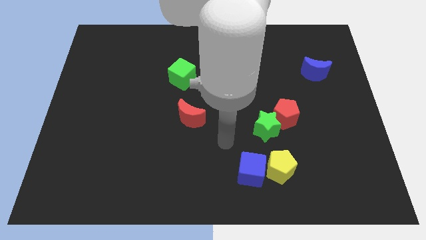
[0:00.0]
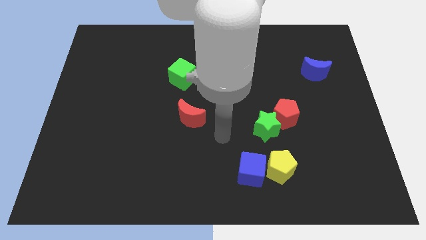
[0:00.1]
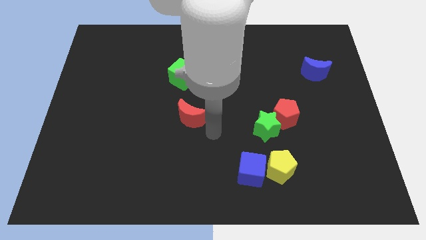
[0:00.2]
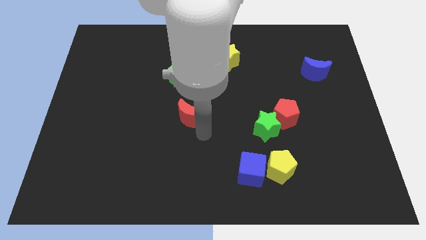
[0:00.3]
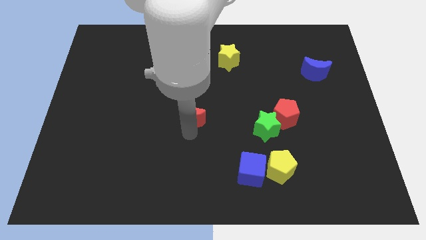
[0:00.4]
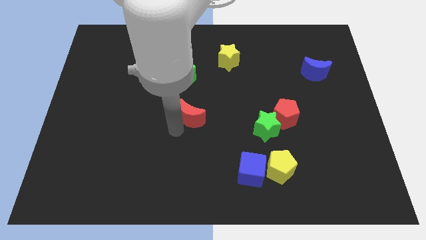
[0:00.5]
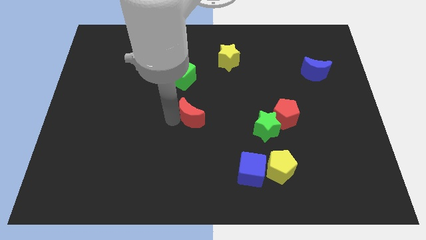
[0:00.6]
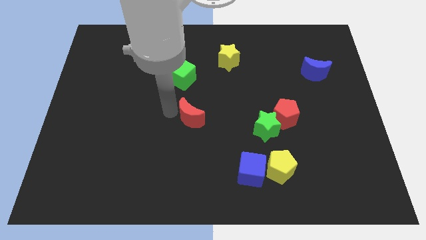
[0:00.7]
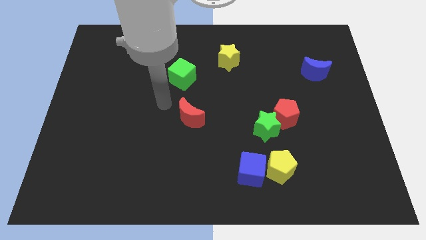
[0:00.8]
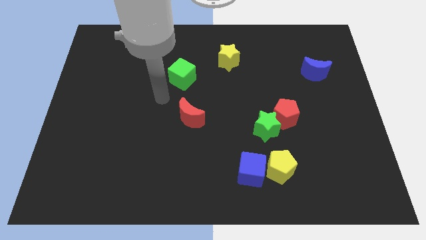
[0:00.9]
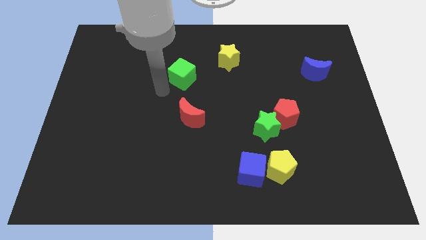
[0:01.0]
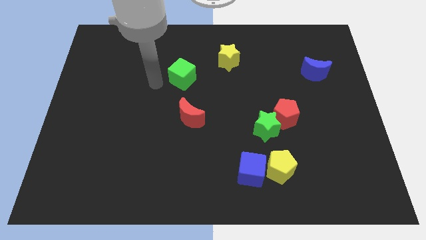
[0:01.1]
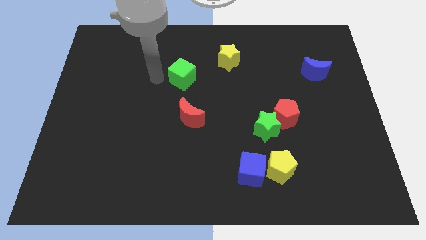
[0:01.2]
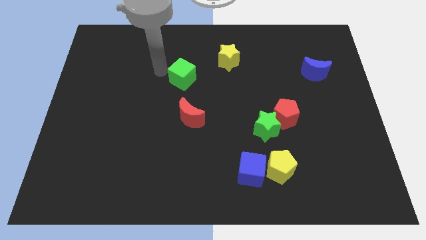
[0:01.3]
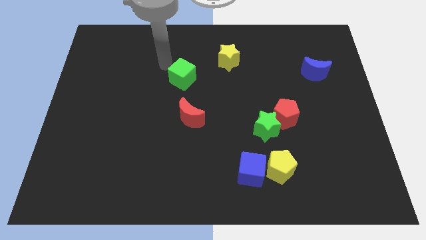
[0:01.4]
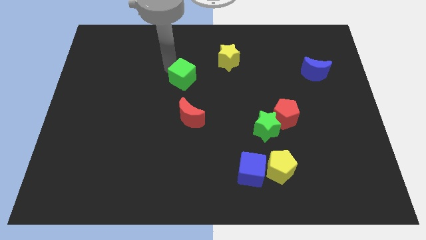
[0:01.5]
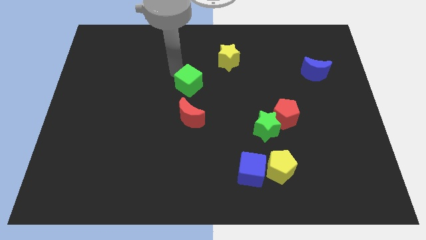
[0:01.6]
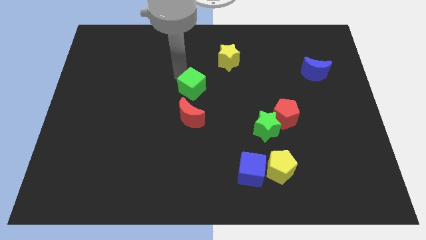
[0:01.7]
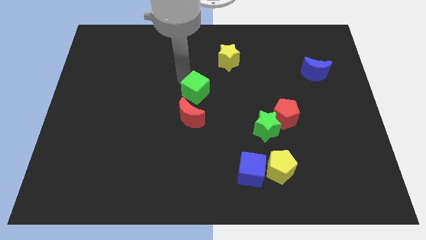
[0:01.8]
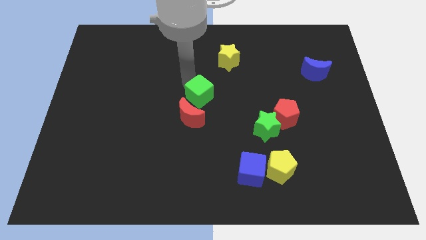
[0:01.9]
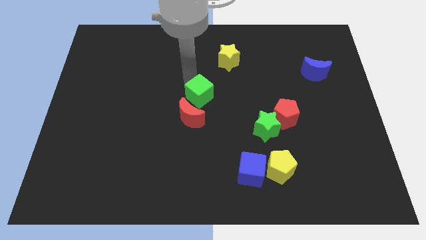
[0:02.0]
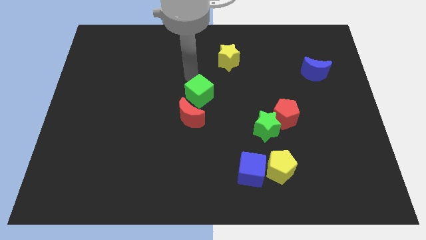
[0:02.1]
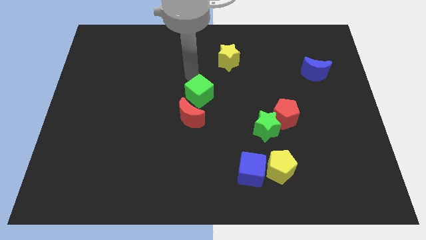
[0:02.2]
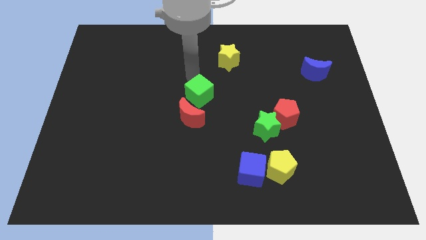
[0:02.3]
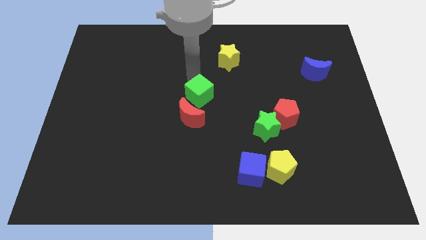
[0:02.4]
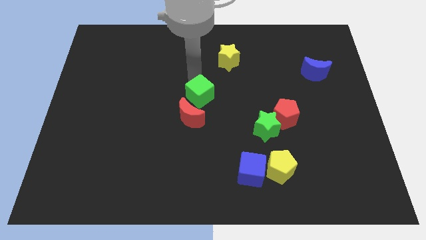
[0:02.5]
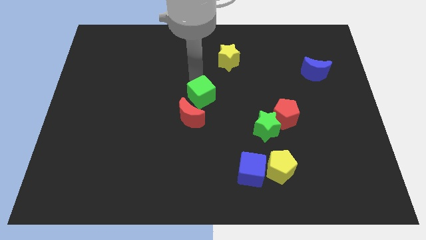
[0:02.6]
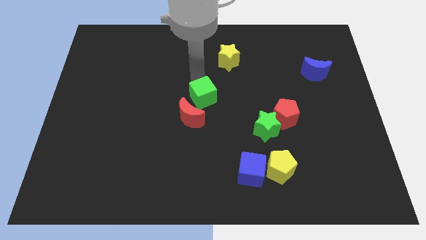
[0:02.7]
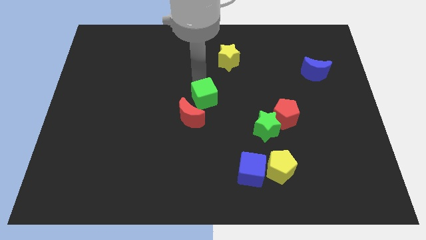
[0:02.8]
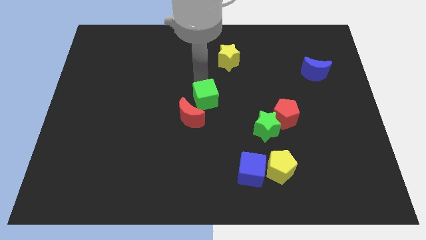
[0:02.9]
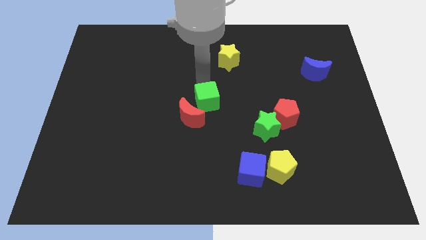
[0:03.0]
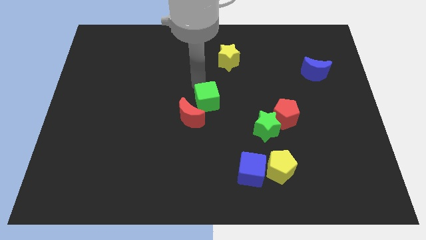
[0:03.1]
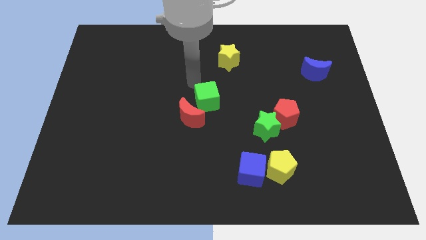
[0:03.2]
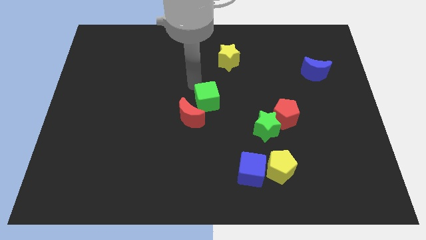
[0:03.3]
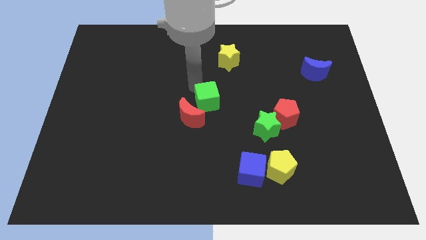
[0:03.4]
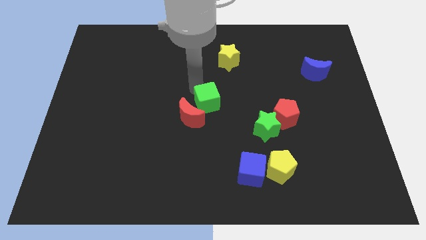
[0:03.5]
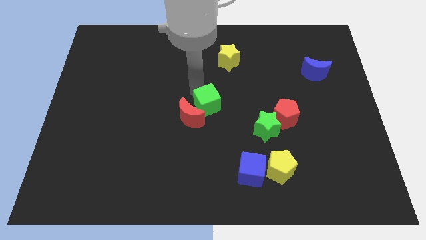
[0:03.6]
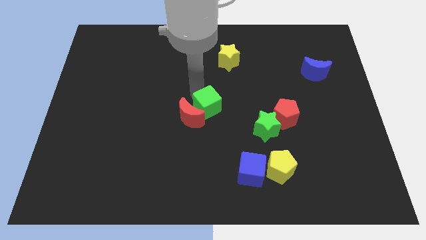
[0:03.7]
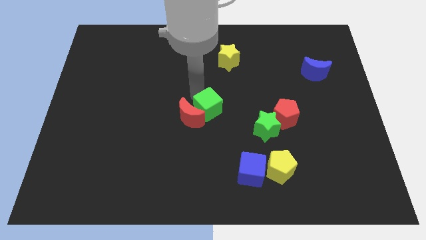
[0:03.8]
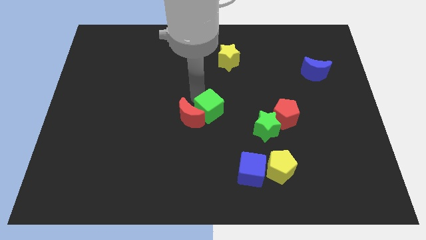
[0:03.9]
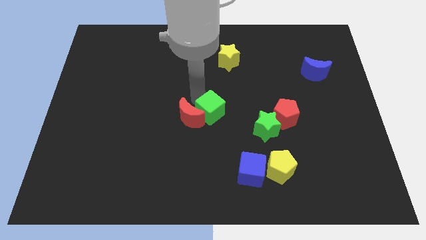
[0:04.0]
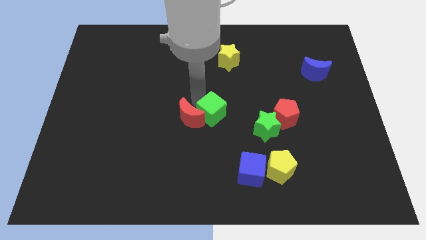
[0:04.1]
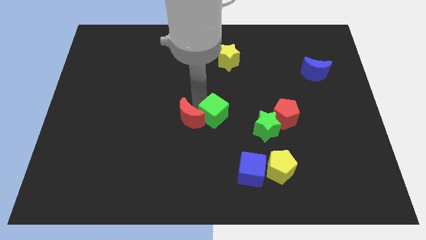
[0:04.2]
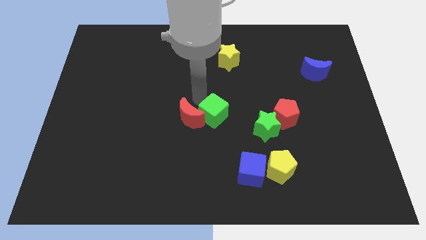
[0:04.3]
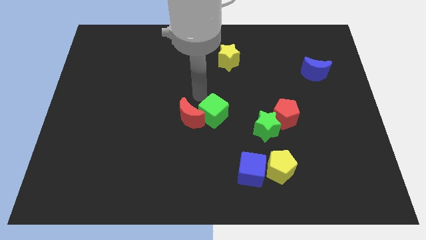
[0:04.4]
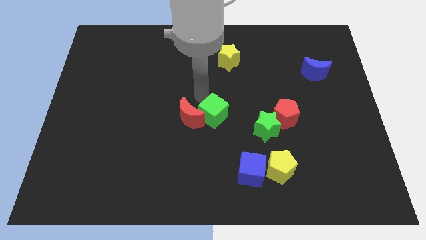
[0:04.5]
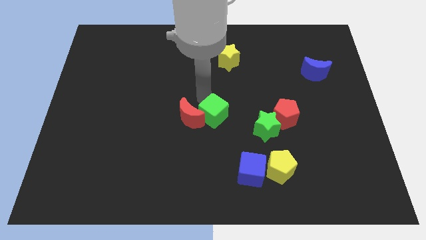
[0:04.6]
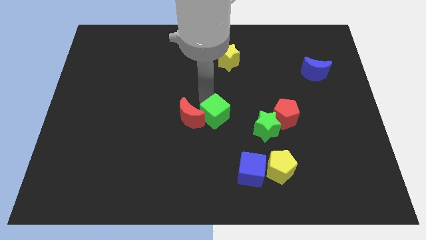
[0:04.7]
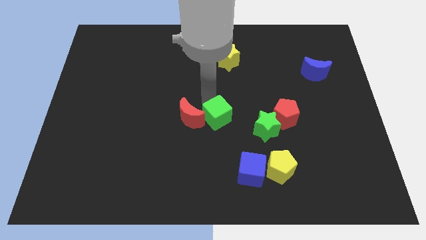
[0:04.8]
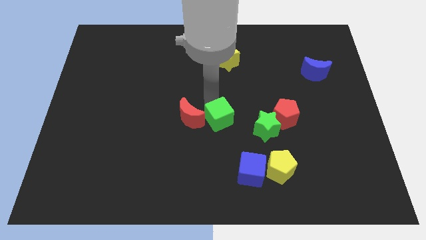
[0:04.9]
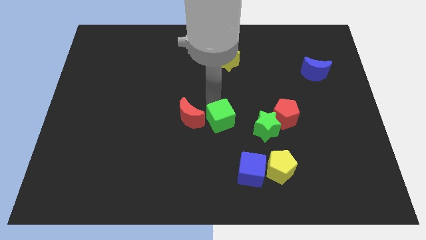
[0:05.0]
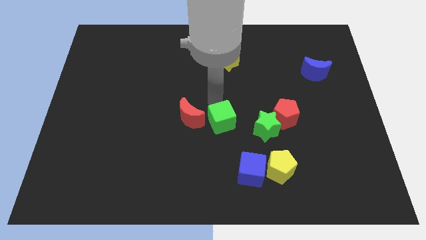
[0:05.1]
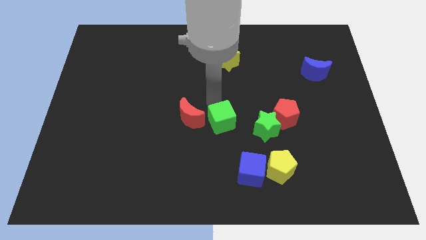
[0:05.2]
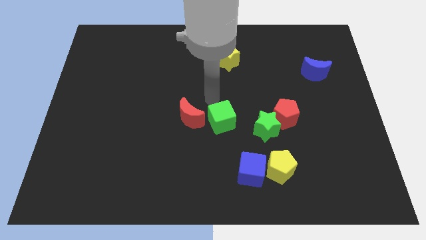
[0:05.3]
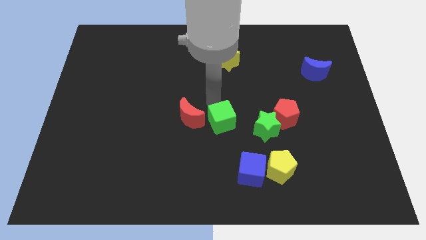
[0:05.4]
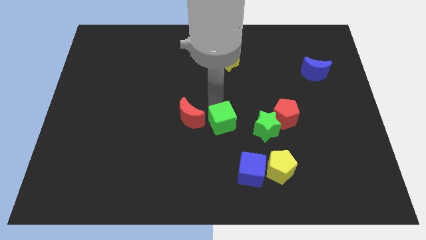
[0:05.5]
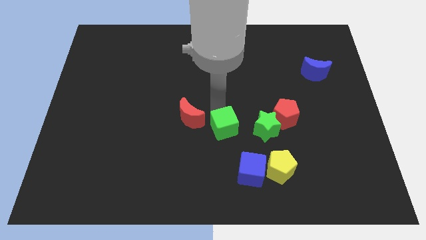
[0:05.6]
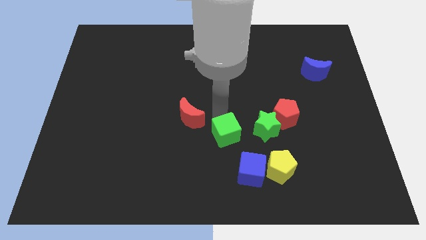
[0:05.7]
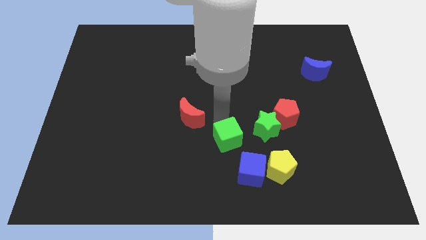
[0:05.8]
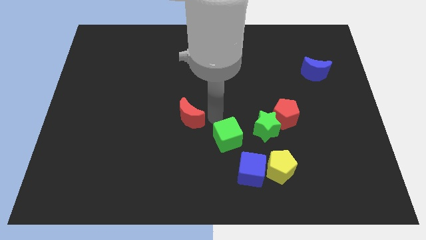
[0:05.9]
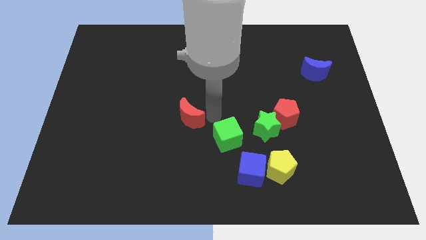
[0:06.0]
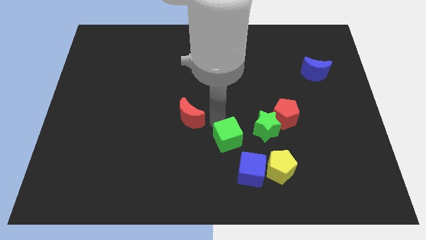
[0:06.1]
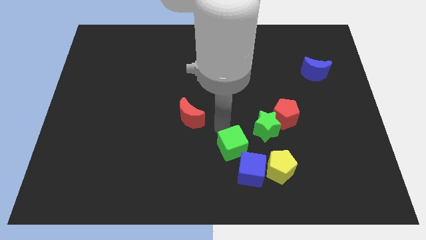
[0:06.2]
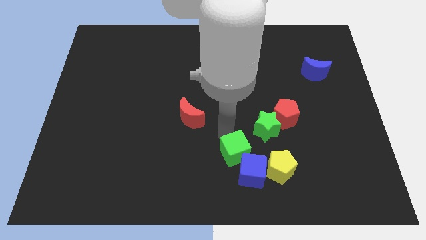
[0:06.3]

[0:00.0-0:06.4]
push the green cube towards the blue cube

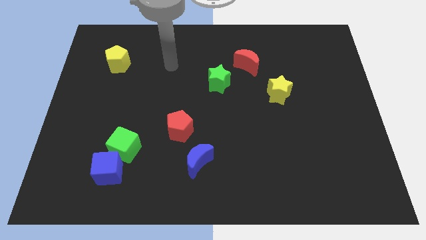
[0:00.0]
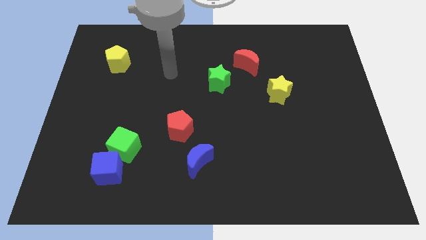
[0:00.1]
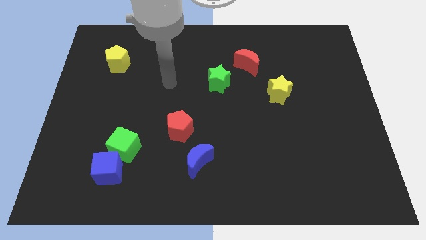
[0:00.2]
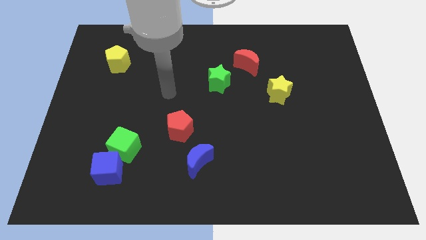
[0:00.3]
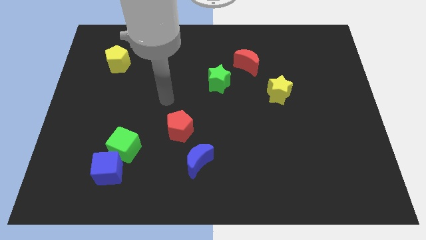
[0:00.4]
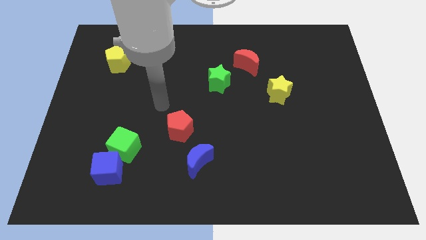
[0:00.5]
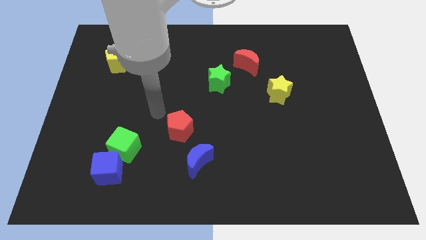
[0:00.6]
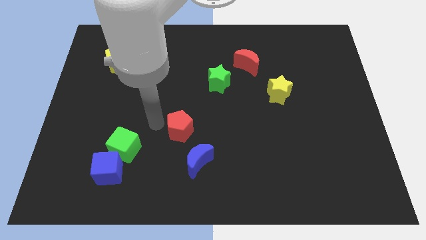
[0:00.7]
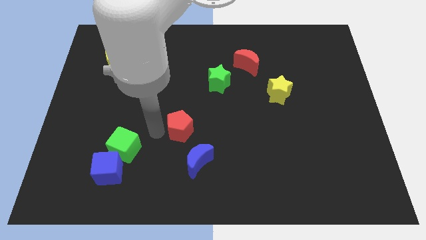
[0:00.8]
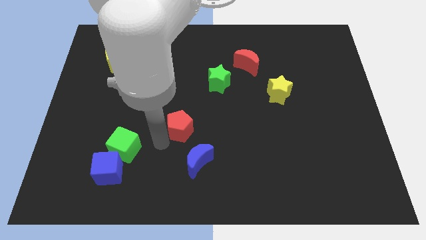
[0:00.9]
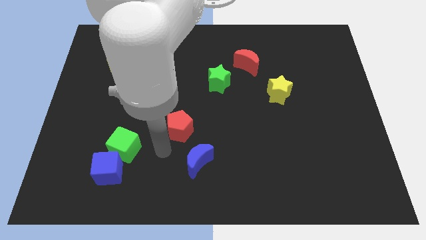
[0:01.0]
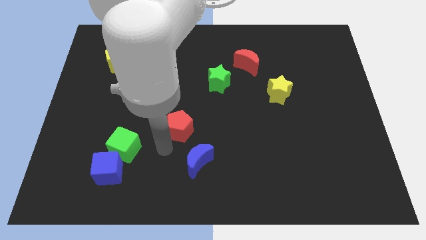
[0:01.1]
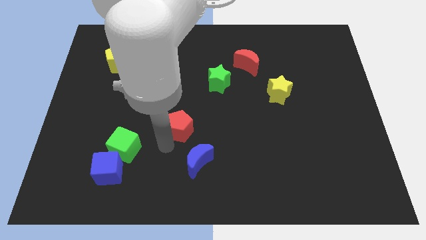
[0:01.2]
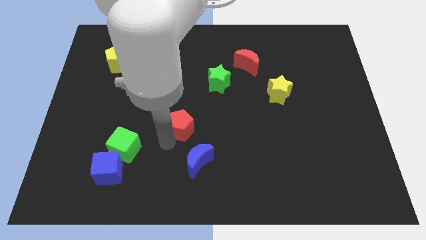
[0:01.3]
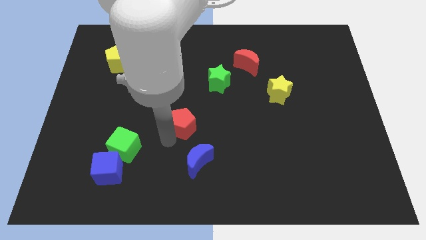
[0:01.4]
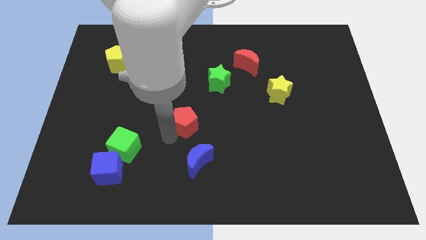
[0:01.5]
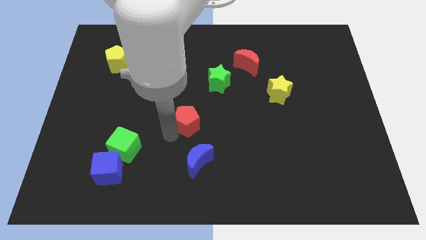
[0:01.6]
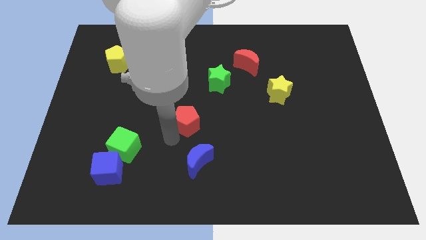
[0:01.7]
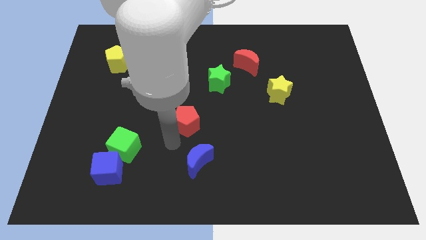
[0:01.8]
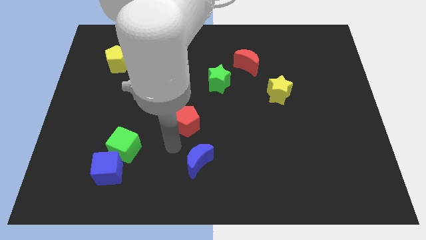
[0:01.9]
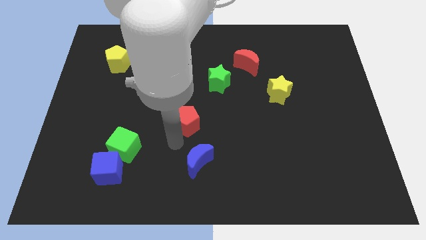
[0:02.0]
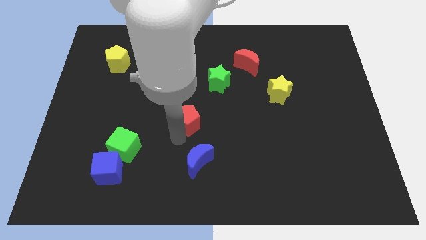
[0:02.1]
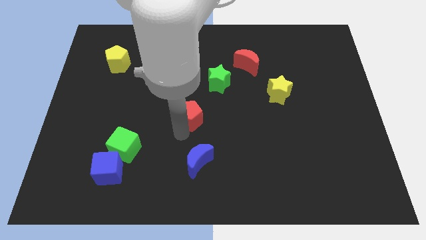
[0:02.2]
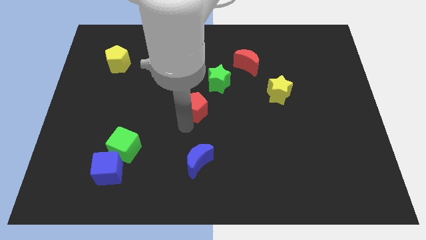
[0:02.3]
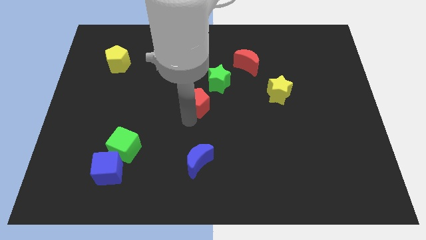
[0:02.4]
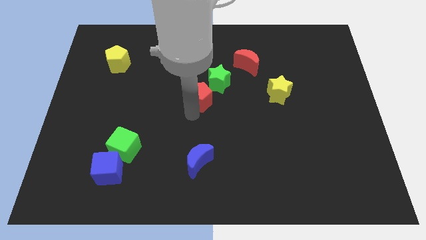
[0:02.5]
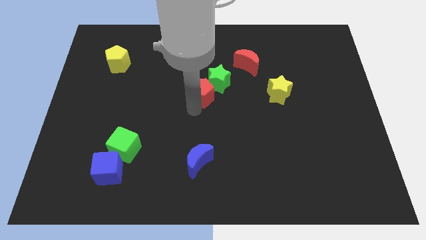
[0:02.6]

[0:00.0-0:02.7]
push the red pentagon to the green star
